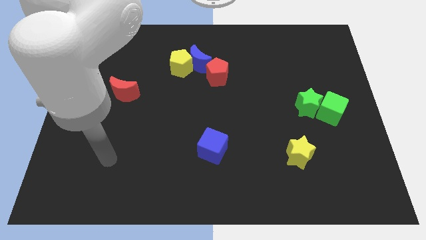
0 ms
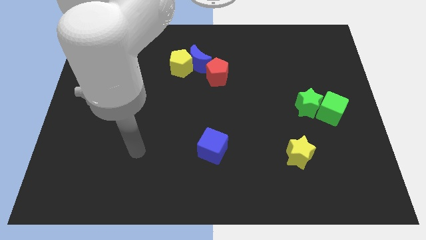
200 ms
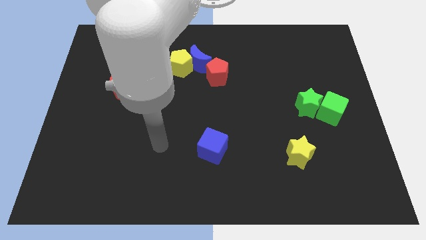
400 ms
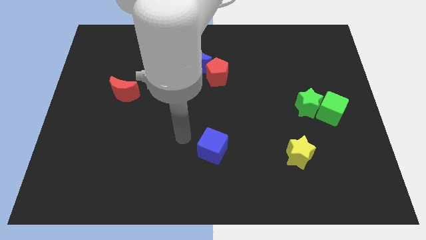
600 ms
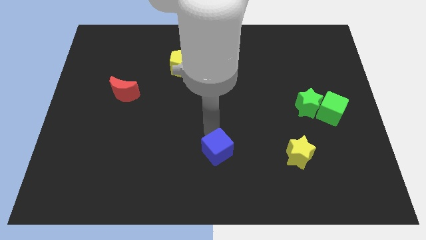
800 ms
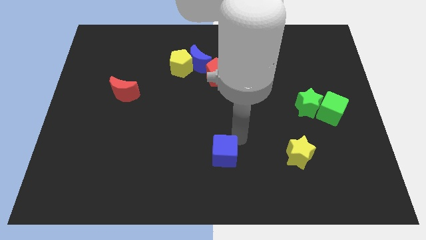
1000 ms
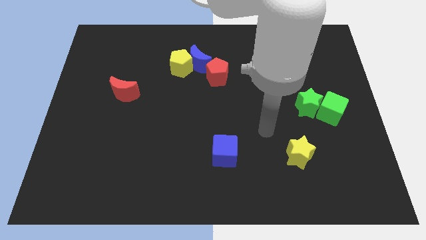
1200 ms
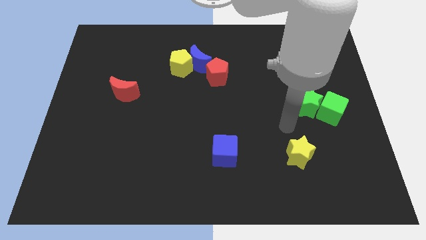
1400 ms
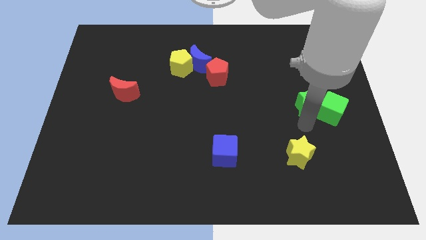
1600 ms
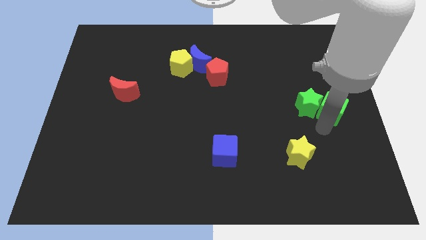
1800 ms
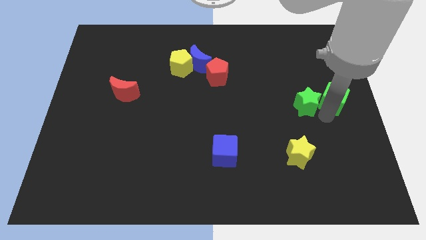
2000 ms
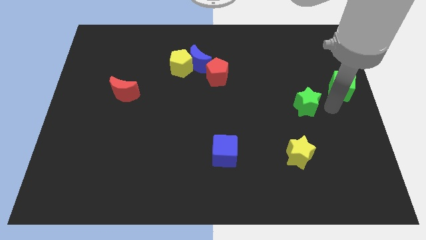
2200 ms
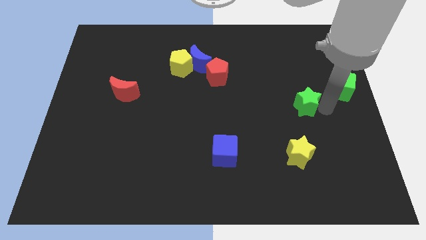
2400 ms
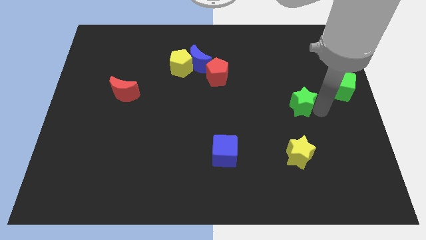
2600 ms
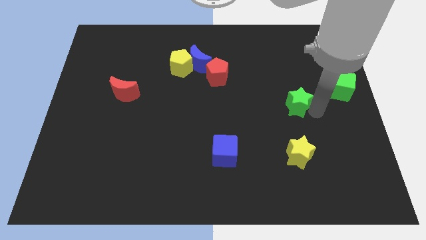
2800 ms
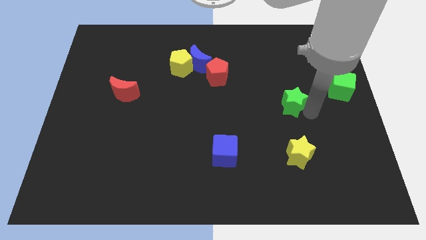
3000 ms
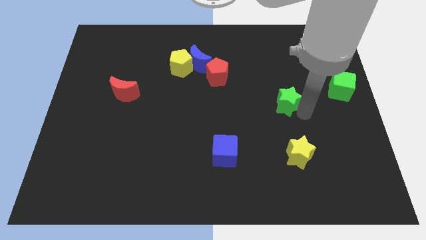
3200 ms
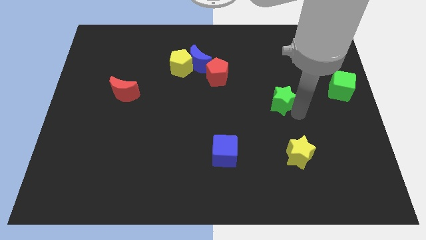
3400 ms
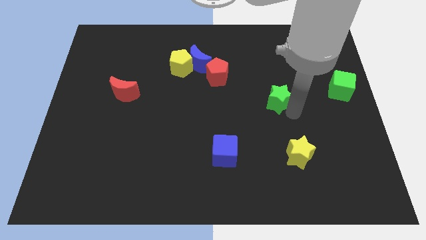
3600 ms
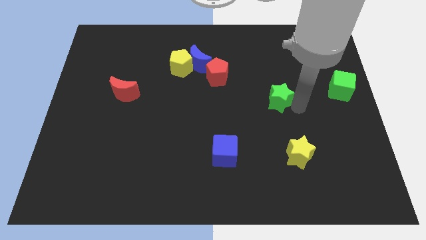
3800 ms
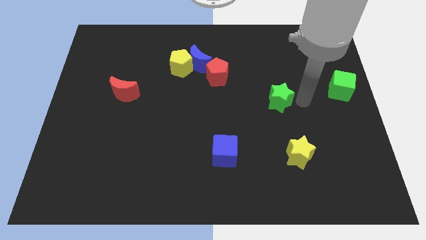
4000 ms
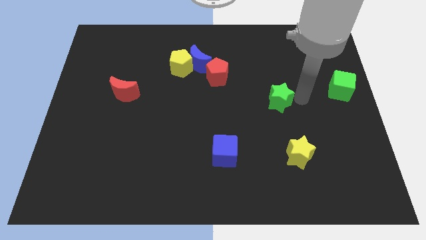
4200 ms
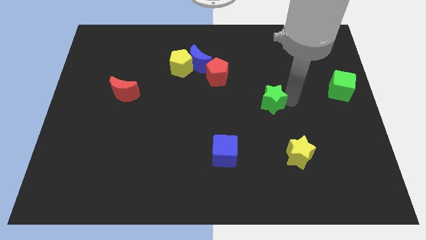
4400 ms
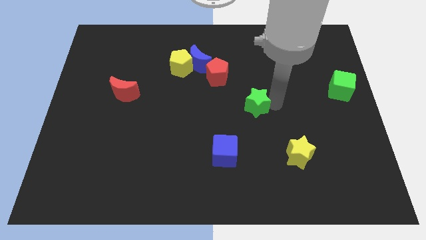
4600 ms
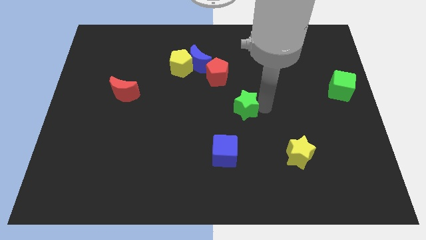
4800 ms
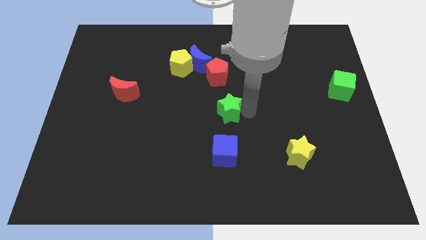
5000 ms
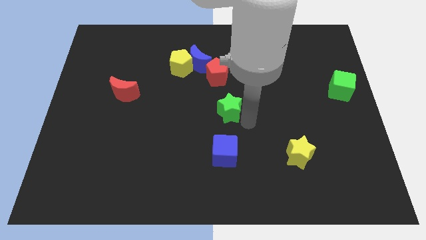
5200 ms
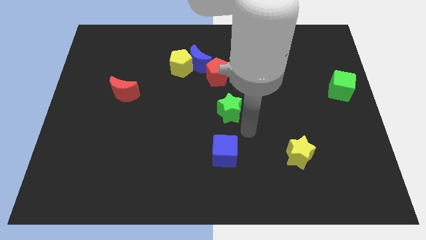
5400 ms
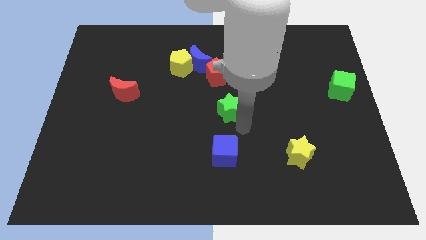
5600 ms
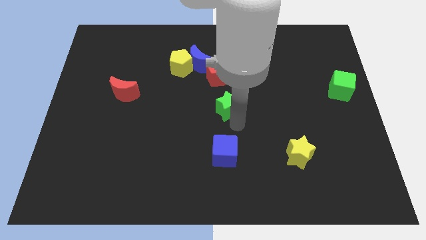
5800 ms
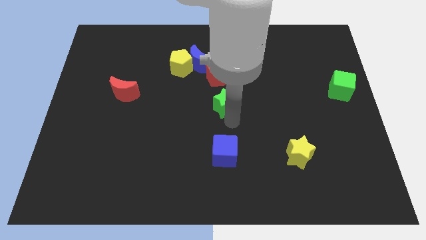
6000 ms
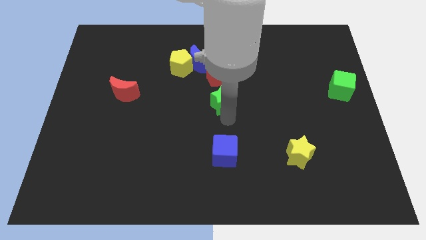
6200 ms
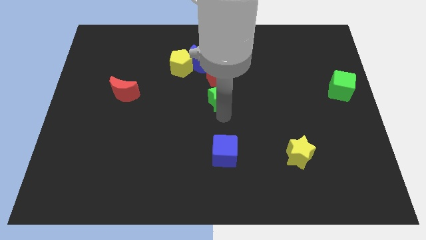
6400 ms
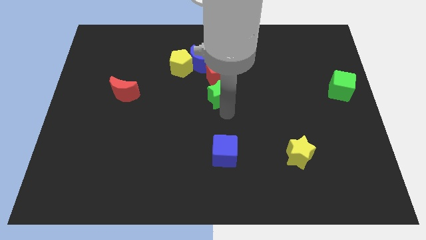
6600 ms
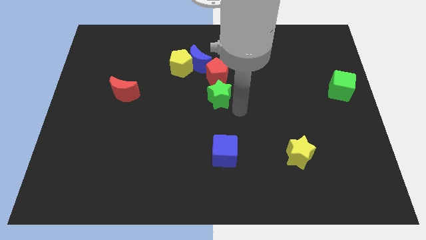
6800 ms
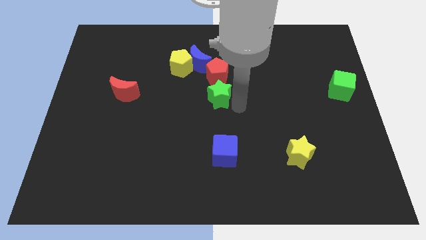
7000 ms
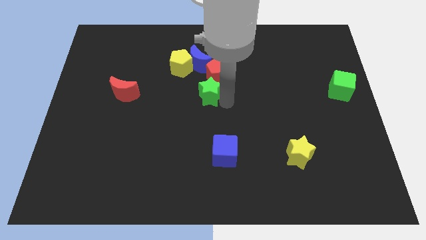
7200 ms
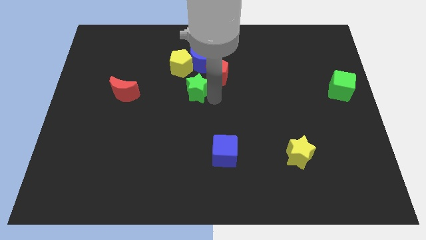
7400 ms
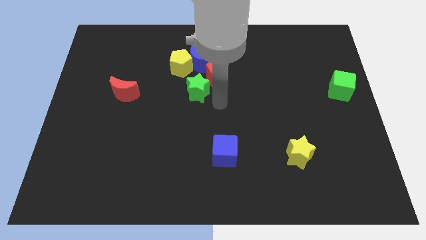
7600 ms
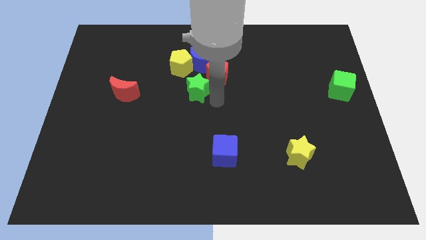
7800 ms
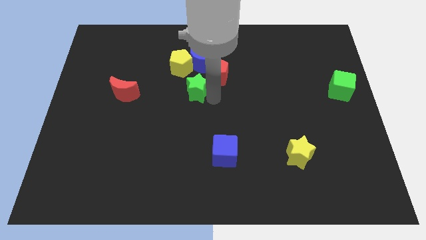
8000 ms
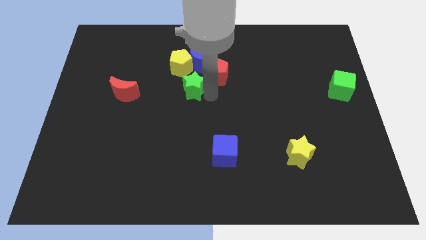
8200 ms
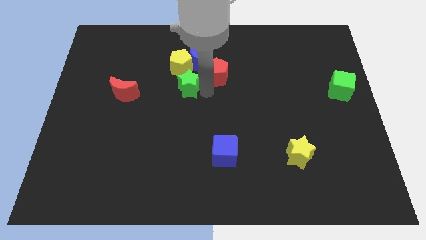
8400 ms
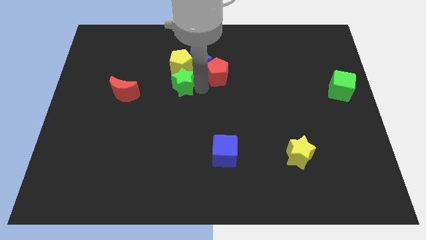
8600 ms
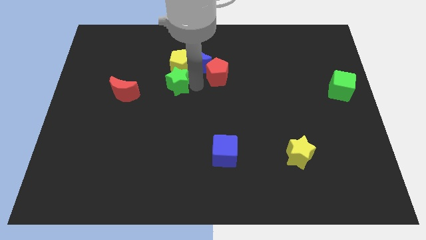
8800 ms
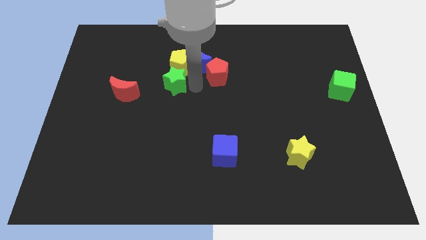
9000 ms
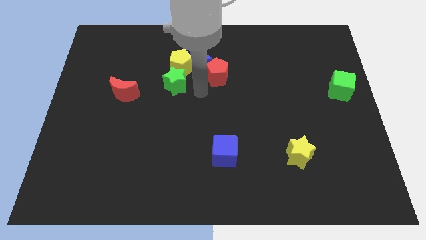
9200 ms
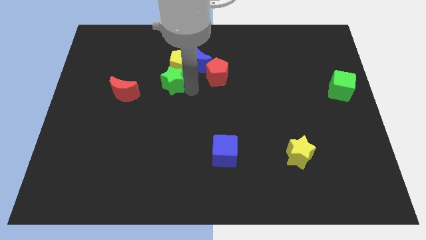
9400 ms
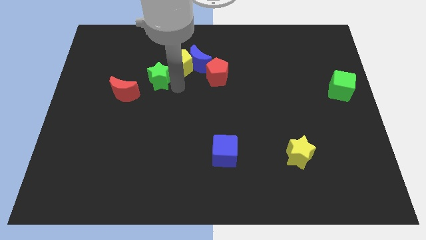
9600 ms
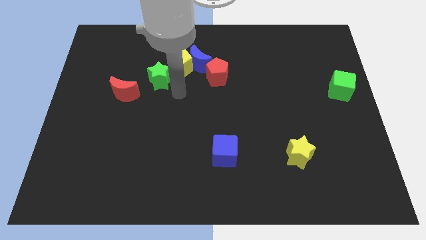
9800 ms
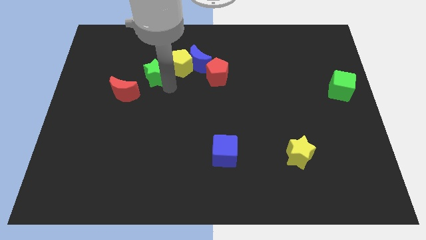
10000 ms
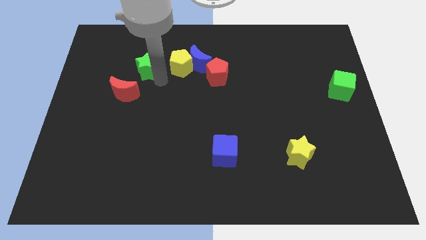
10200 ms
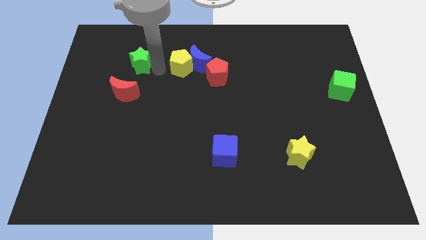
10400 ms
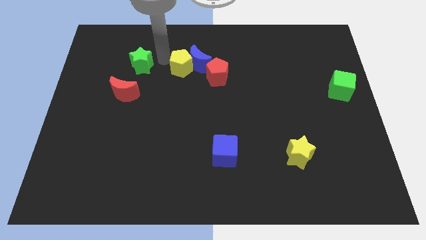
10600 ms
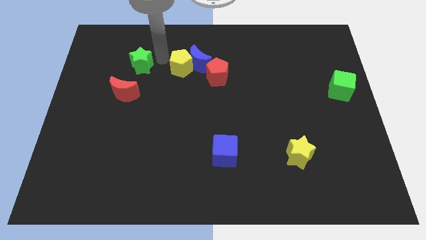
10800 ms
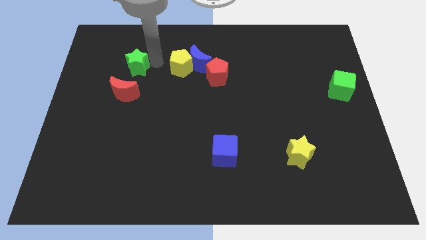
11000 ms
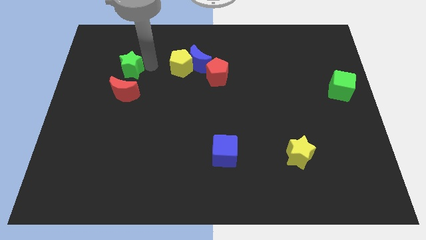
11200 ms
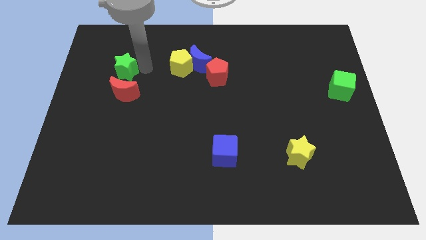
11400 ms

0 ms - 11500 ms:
slide the green star to the top left of the red moon

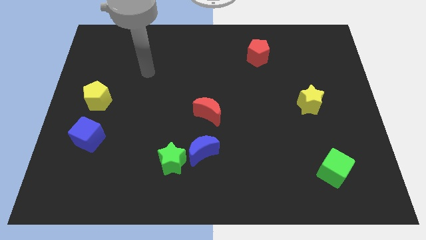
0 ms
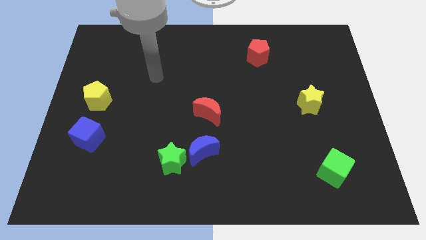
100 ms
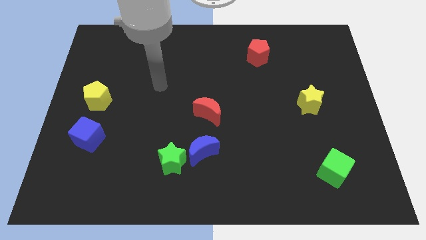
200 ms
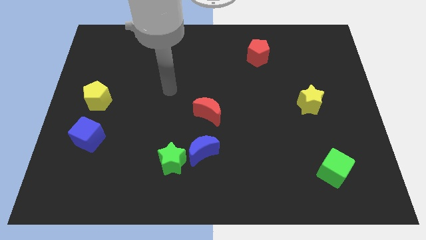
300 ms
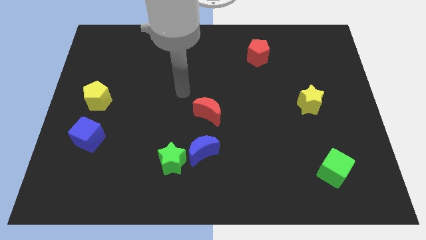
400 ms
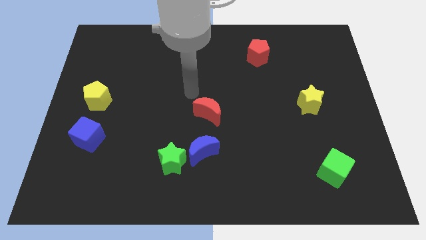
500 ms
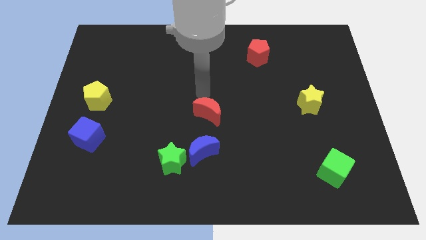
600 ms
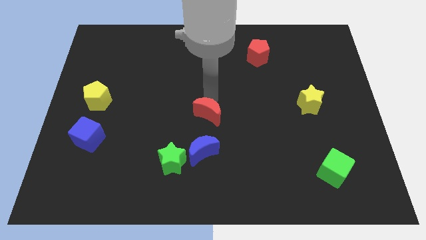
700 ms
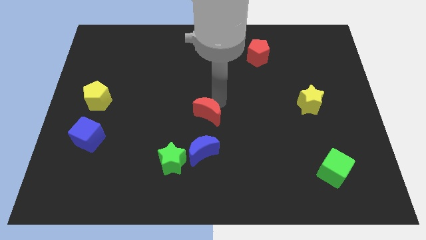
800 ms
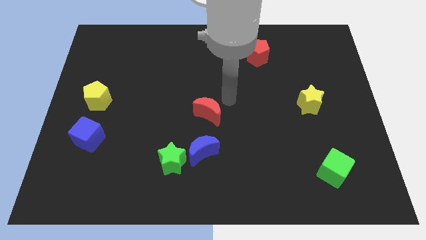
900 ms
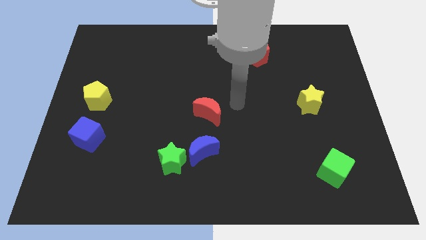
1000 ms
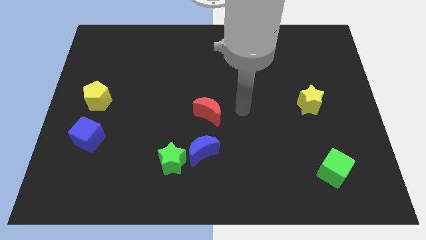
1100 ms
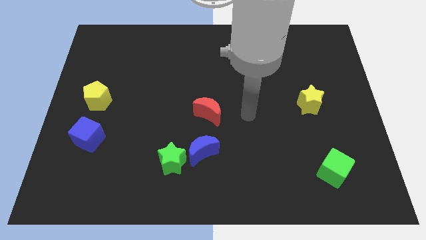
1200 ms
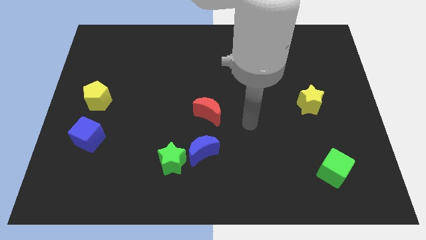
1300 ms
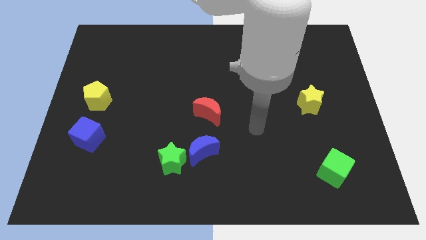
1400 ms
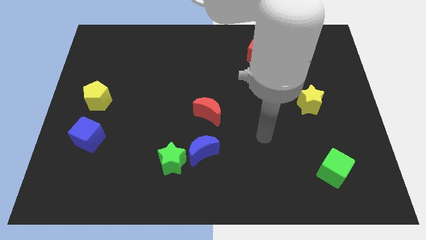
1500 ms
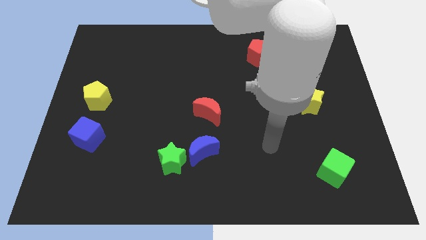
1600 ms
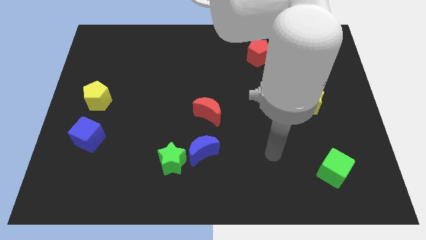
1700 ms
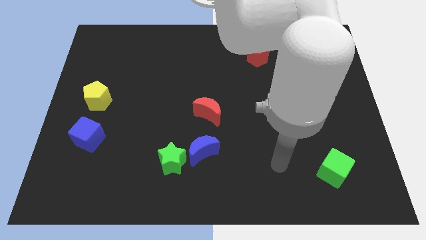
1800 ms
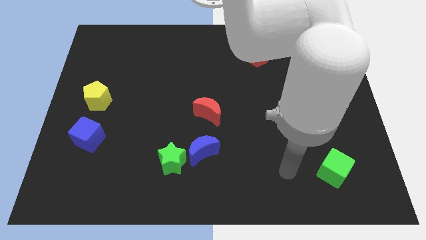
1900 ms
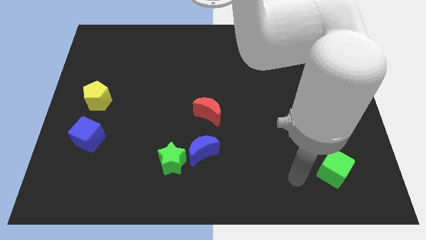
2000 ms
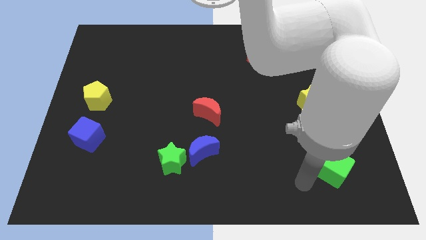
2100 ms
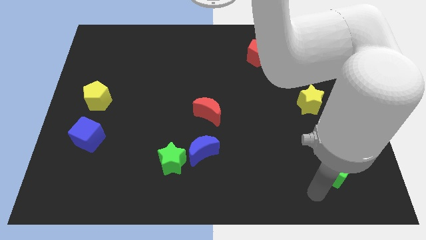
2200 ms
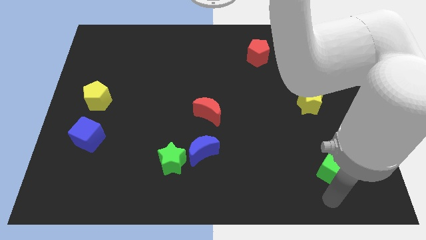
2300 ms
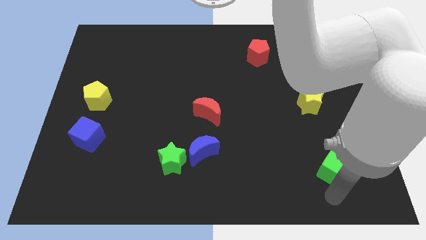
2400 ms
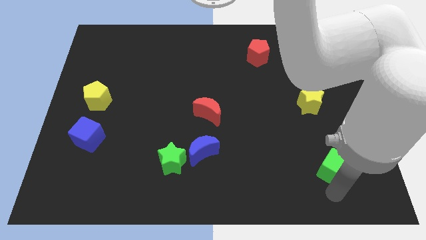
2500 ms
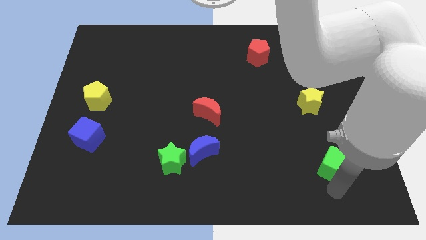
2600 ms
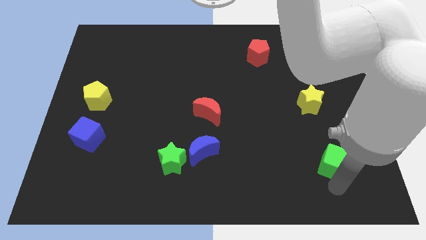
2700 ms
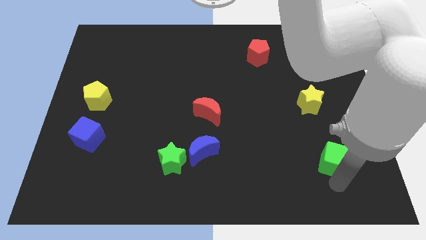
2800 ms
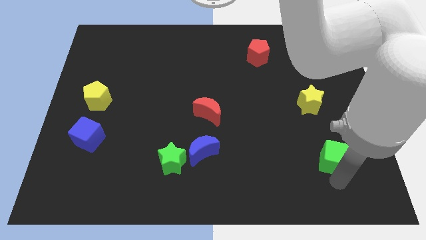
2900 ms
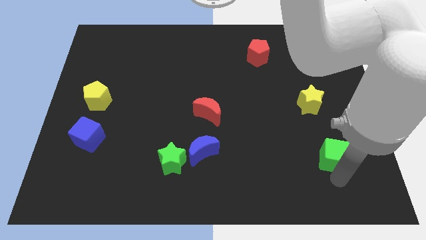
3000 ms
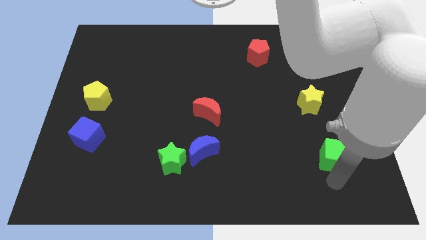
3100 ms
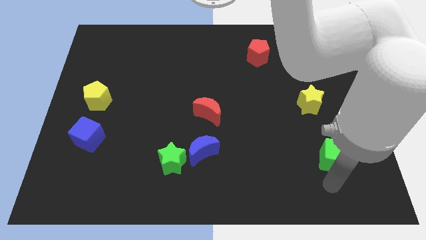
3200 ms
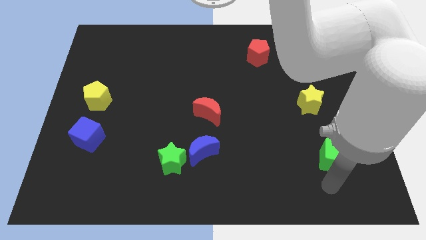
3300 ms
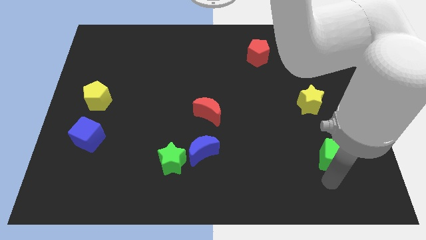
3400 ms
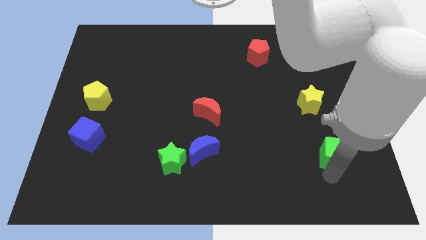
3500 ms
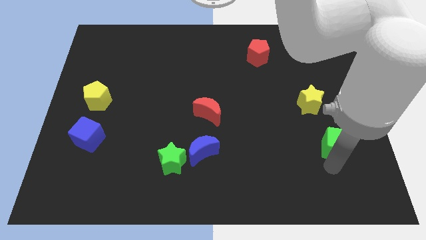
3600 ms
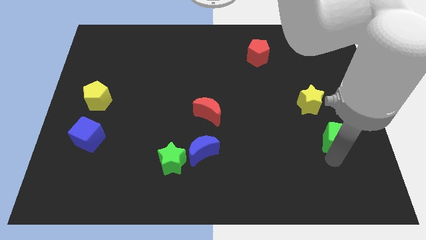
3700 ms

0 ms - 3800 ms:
push the green cube to the bottom right of the yellow star
